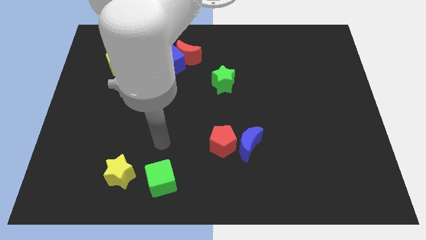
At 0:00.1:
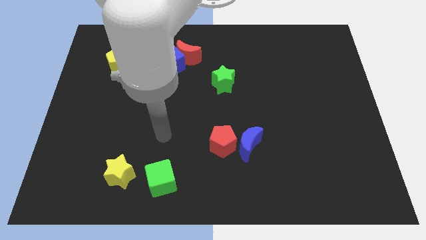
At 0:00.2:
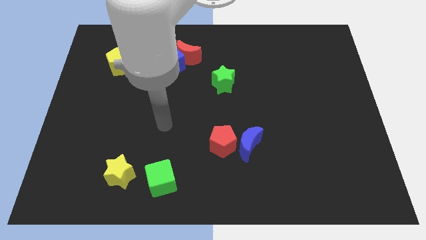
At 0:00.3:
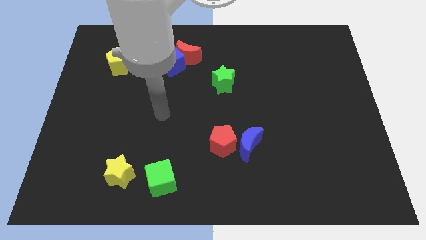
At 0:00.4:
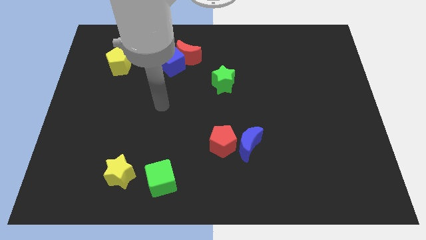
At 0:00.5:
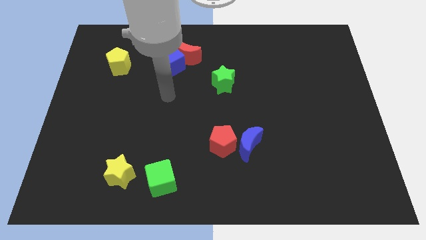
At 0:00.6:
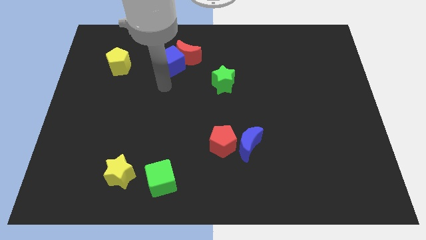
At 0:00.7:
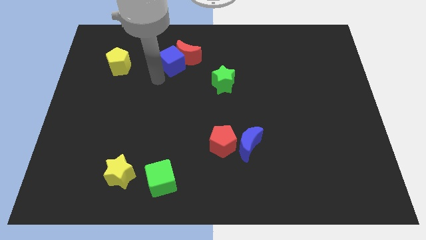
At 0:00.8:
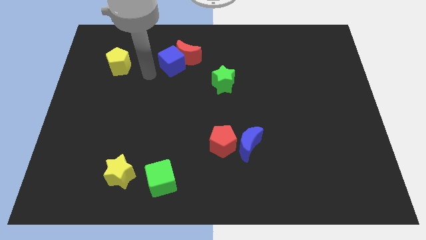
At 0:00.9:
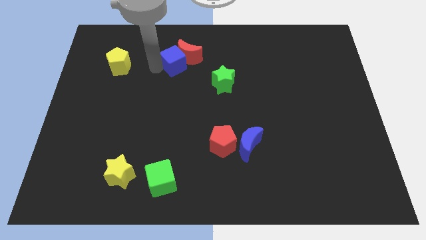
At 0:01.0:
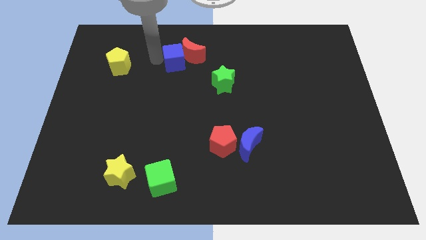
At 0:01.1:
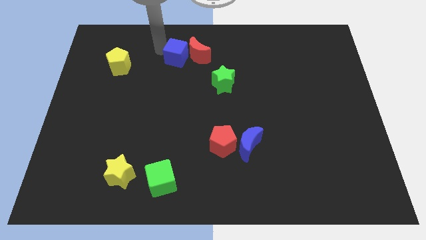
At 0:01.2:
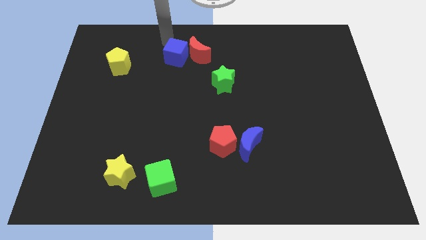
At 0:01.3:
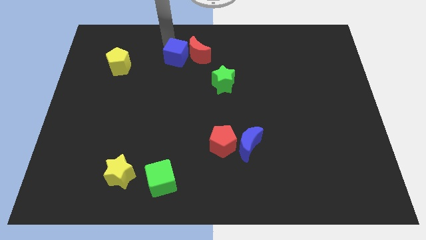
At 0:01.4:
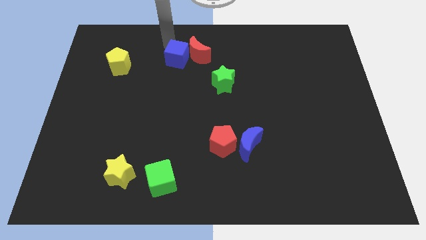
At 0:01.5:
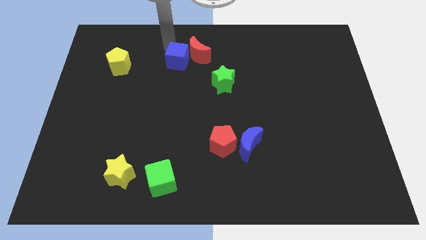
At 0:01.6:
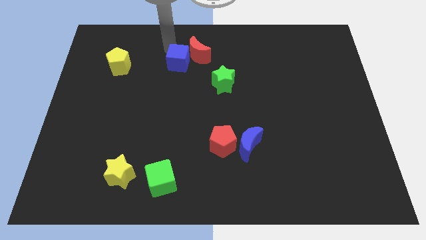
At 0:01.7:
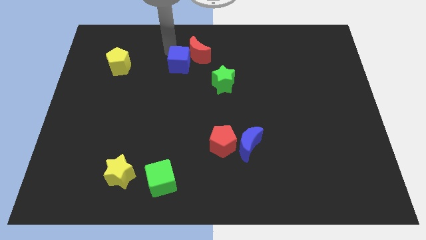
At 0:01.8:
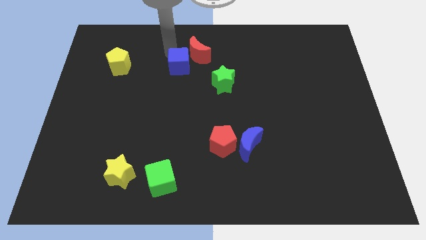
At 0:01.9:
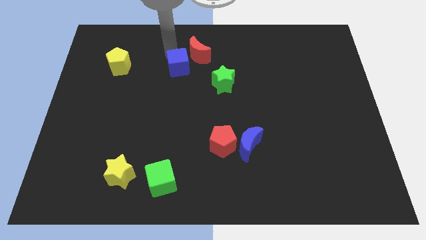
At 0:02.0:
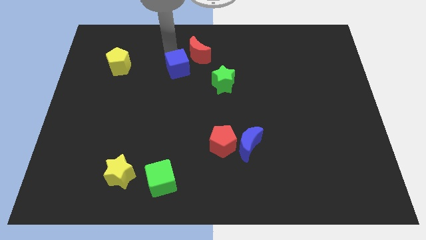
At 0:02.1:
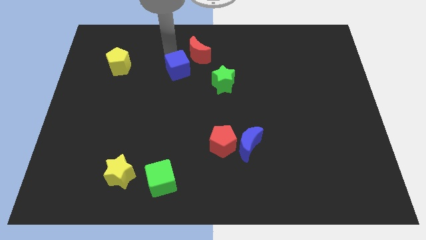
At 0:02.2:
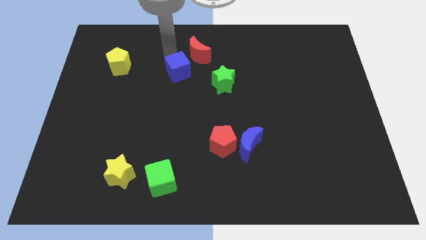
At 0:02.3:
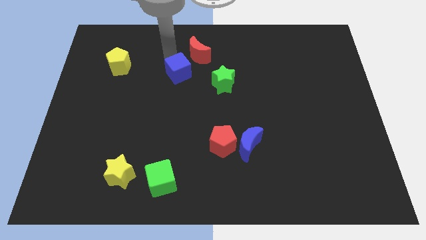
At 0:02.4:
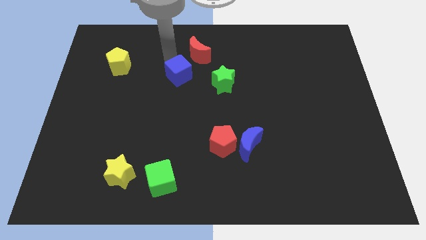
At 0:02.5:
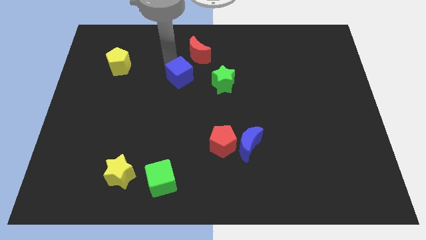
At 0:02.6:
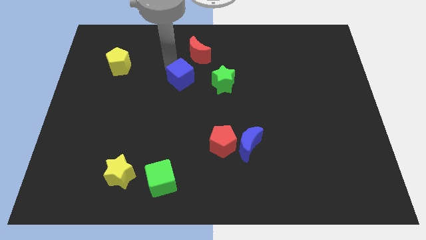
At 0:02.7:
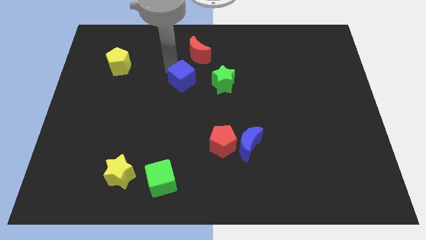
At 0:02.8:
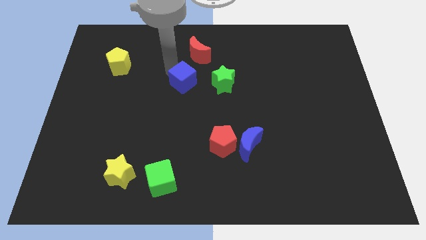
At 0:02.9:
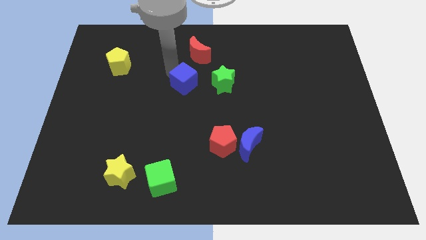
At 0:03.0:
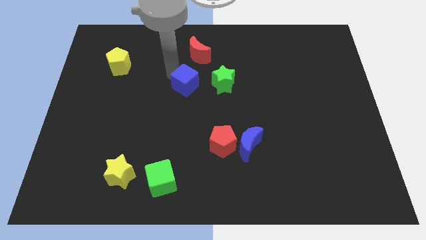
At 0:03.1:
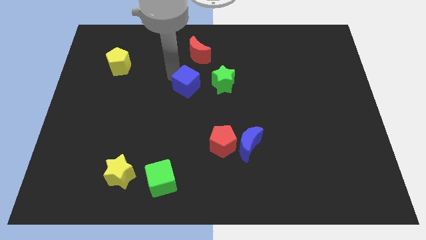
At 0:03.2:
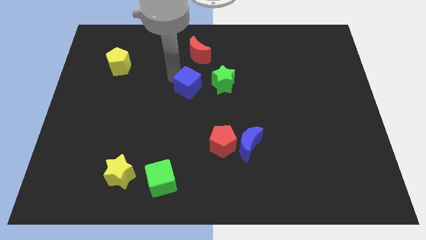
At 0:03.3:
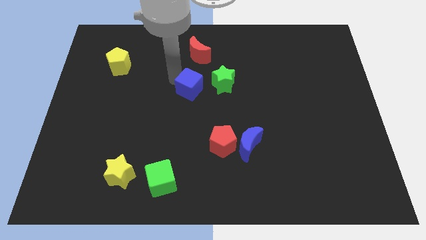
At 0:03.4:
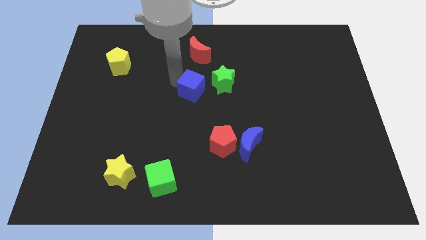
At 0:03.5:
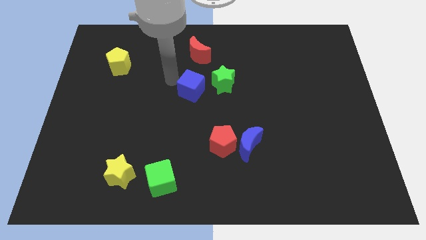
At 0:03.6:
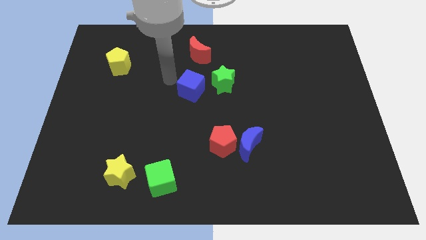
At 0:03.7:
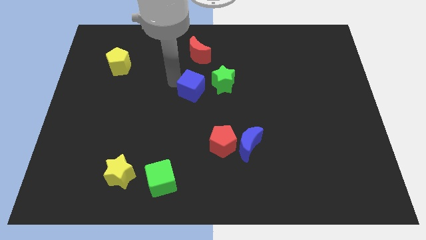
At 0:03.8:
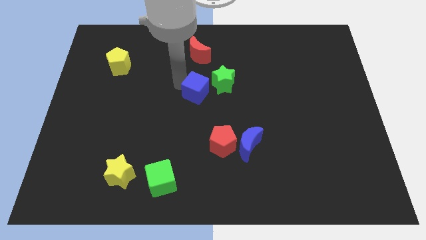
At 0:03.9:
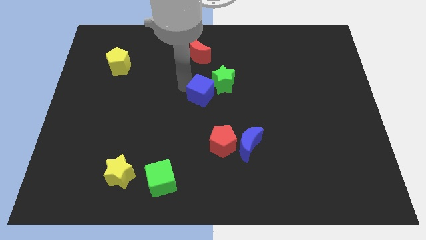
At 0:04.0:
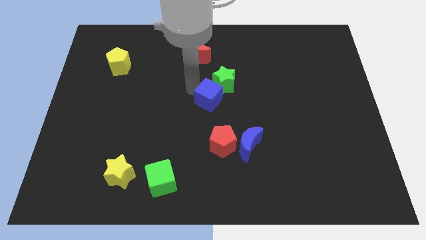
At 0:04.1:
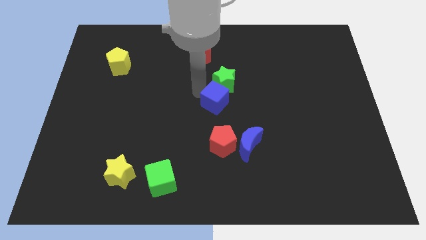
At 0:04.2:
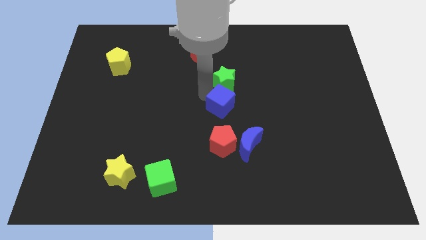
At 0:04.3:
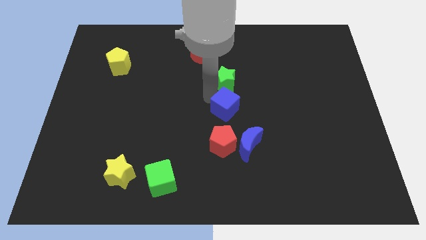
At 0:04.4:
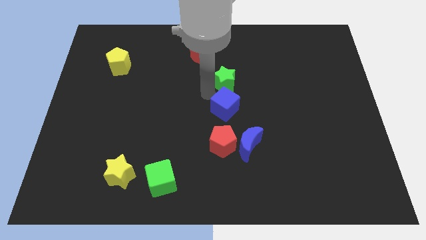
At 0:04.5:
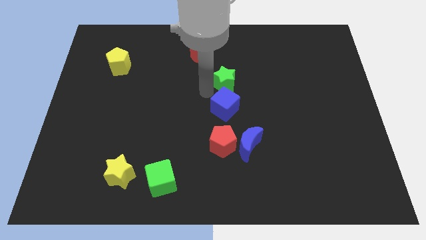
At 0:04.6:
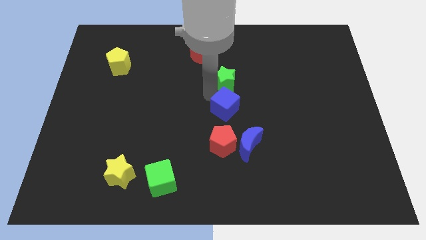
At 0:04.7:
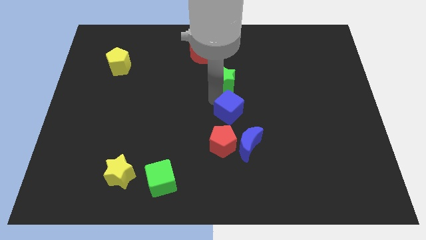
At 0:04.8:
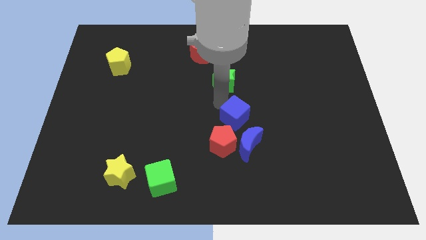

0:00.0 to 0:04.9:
slide the blue cube diagonally up and to the right of the red pentagon

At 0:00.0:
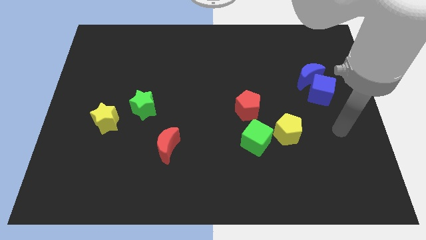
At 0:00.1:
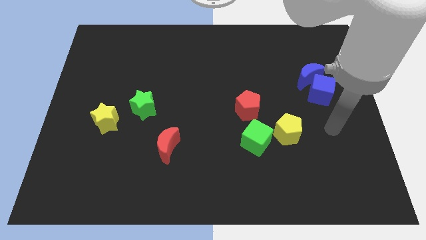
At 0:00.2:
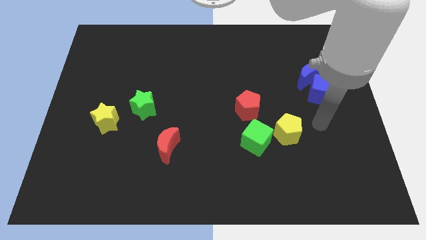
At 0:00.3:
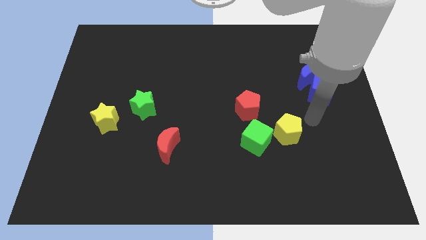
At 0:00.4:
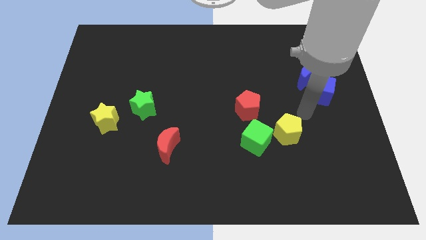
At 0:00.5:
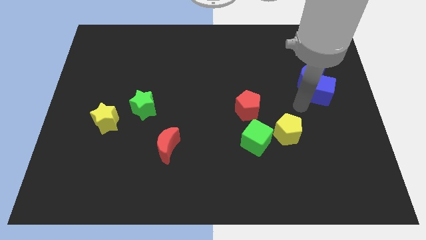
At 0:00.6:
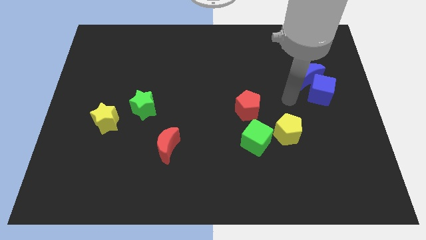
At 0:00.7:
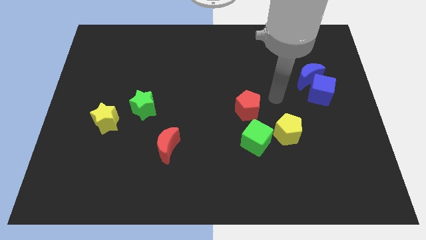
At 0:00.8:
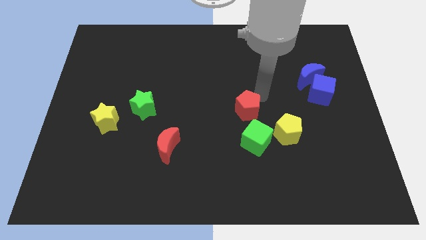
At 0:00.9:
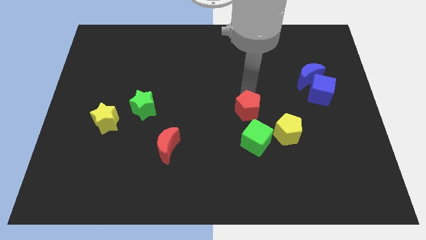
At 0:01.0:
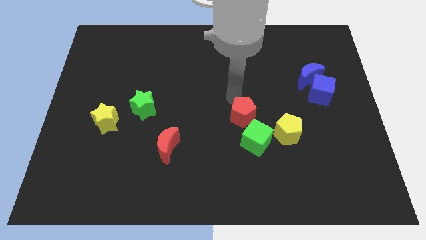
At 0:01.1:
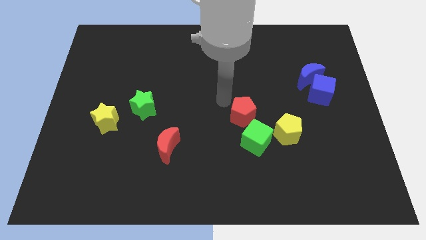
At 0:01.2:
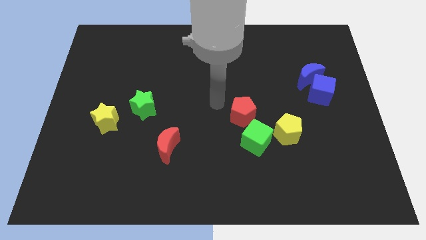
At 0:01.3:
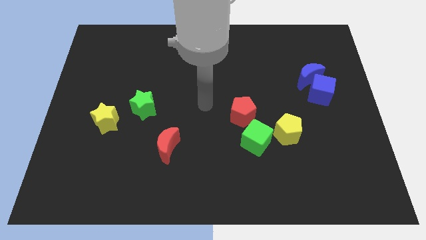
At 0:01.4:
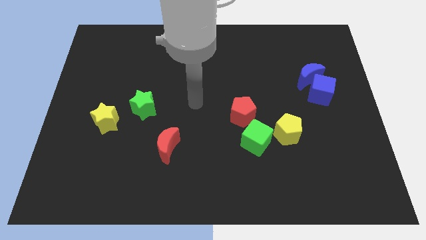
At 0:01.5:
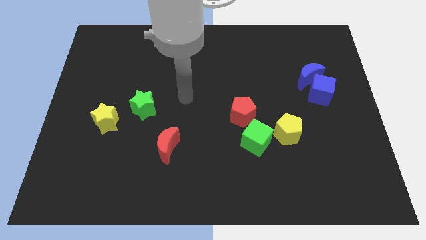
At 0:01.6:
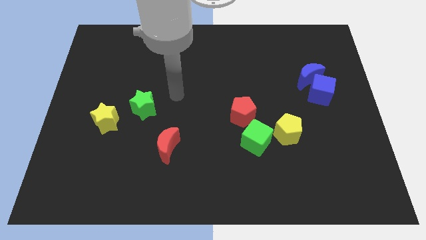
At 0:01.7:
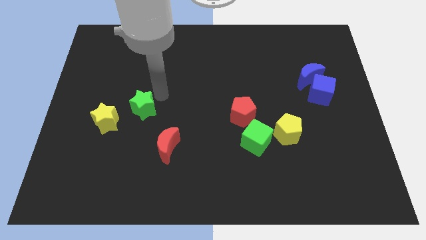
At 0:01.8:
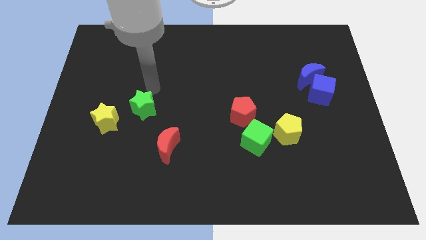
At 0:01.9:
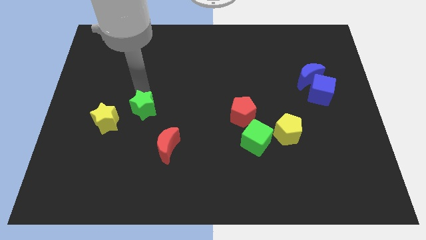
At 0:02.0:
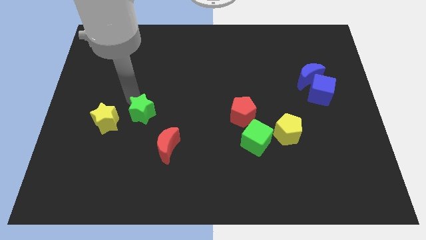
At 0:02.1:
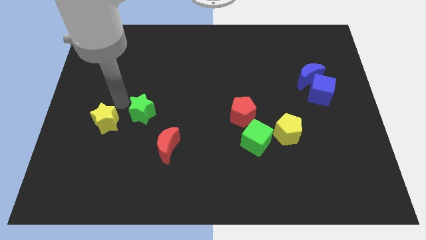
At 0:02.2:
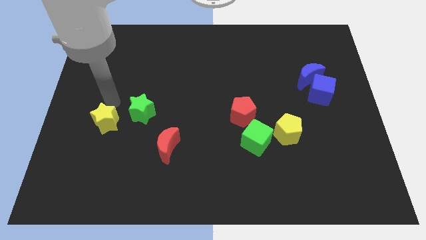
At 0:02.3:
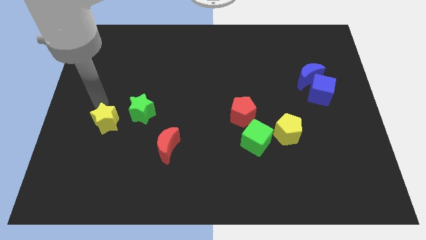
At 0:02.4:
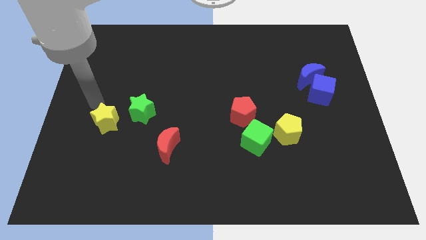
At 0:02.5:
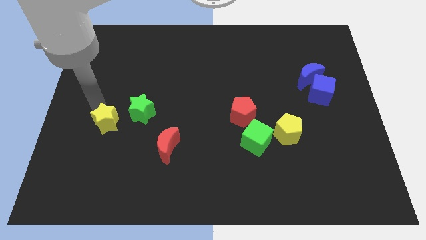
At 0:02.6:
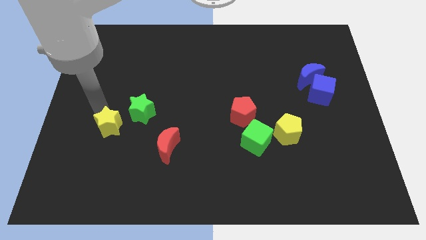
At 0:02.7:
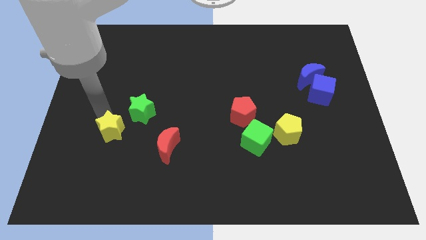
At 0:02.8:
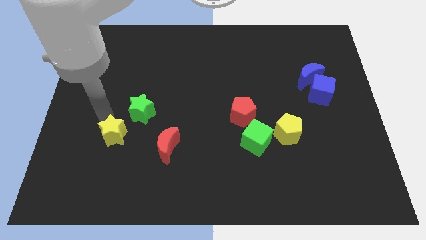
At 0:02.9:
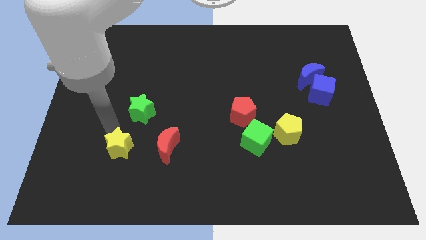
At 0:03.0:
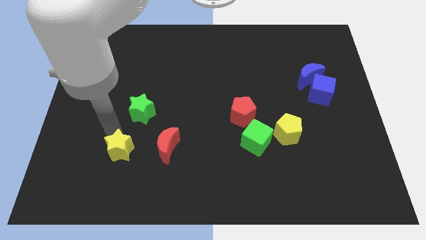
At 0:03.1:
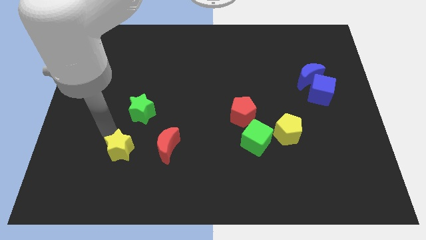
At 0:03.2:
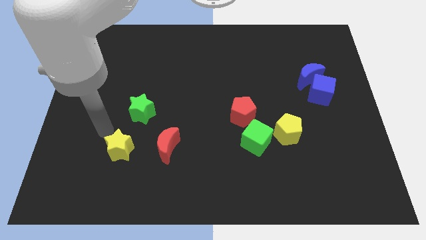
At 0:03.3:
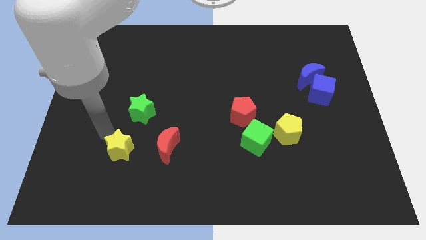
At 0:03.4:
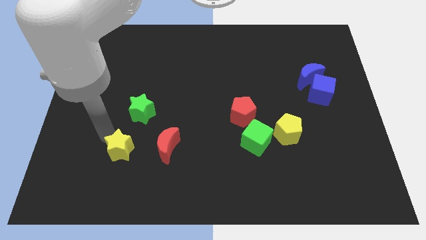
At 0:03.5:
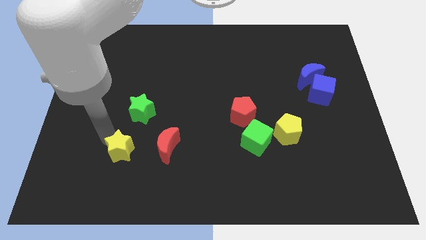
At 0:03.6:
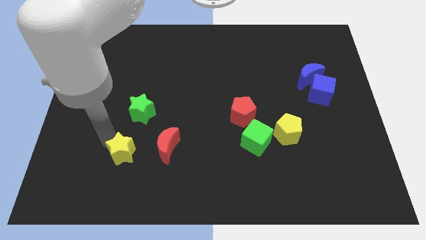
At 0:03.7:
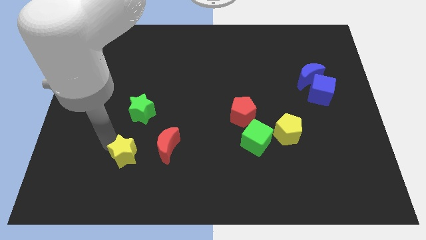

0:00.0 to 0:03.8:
move the yellow star to the bottom left of the red moon
